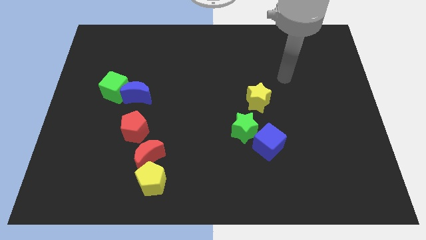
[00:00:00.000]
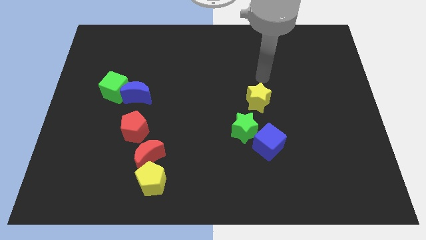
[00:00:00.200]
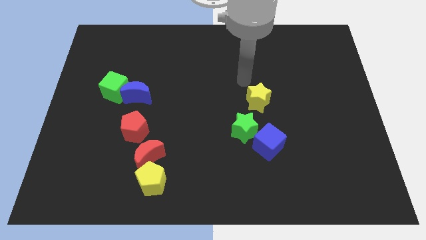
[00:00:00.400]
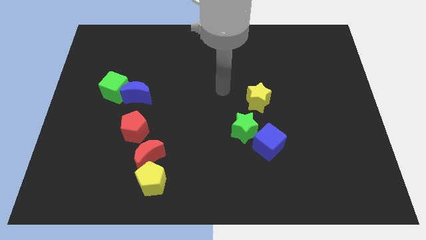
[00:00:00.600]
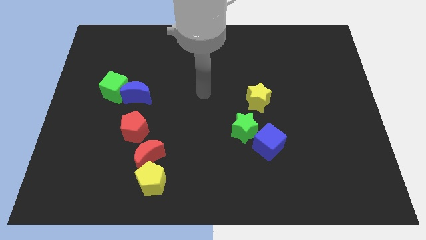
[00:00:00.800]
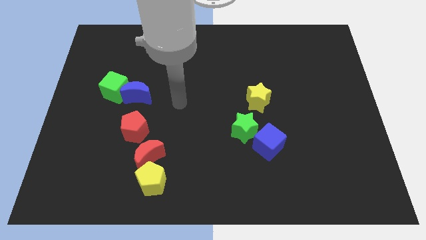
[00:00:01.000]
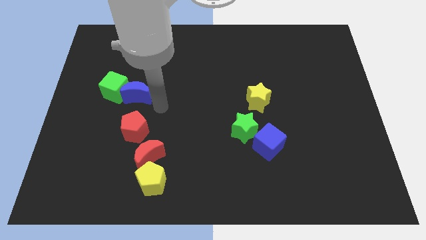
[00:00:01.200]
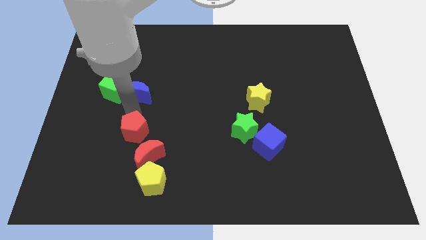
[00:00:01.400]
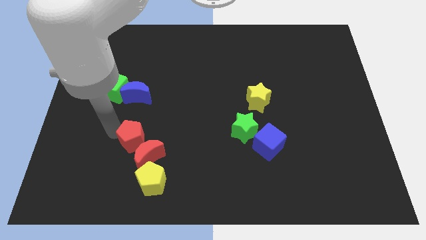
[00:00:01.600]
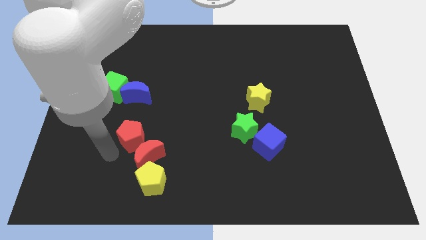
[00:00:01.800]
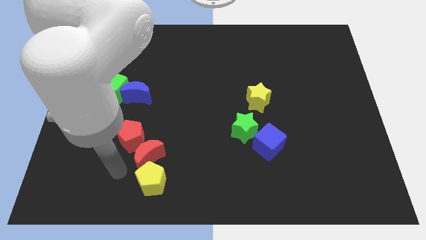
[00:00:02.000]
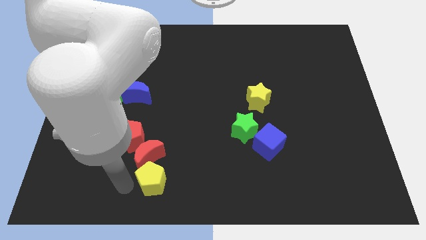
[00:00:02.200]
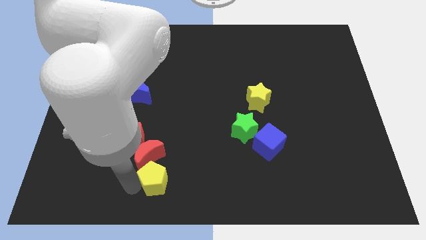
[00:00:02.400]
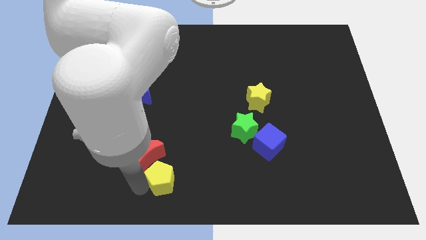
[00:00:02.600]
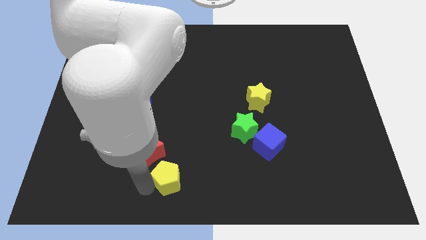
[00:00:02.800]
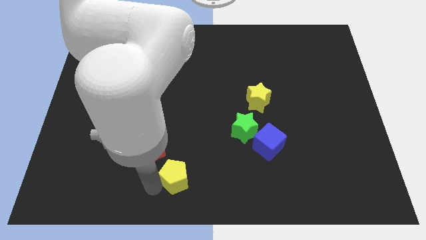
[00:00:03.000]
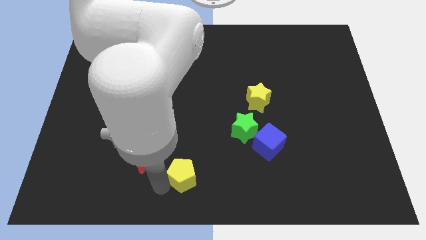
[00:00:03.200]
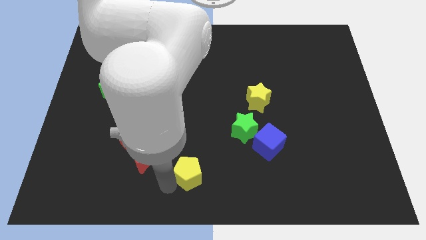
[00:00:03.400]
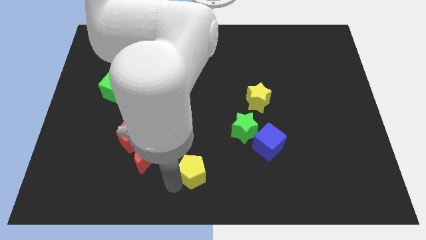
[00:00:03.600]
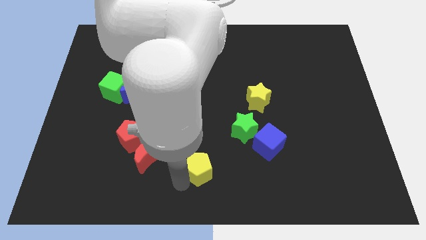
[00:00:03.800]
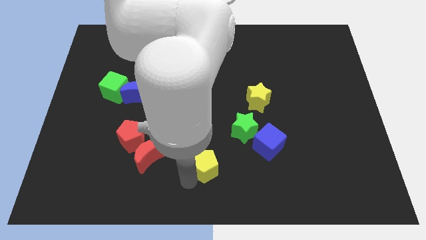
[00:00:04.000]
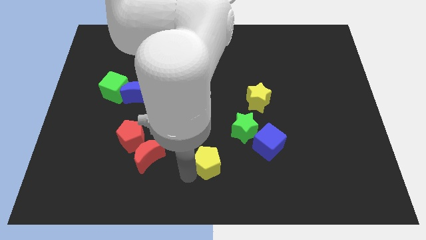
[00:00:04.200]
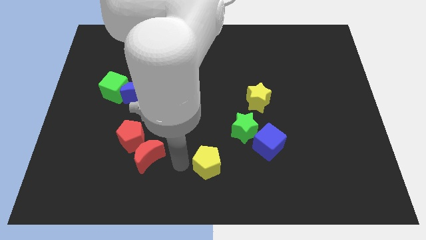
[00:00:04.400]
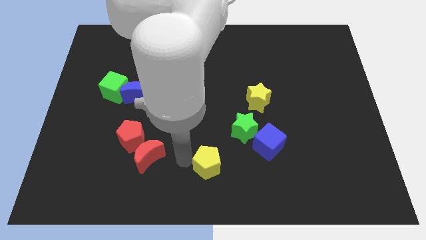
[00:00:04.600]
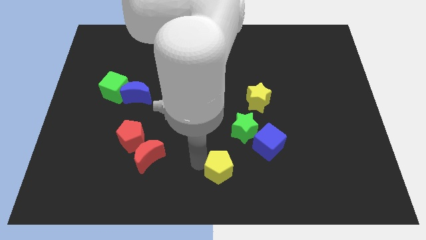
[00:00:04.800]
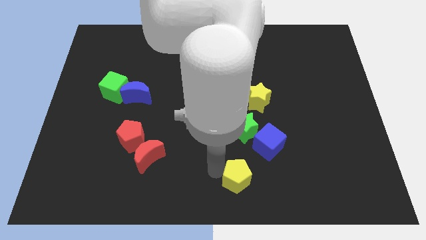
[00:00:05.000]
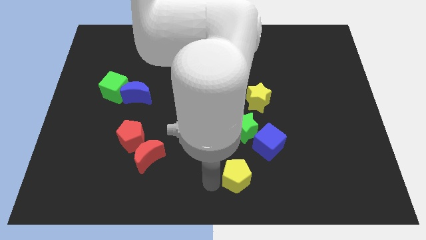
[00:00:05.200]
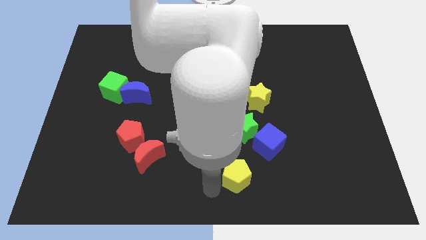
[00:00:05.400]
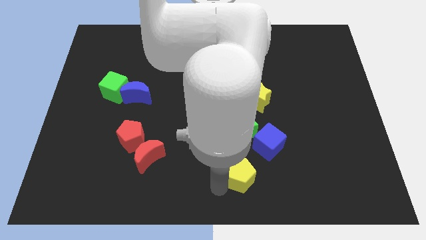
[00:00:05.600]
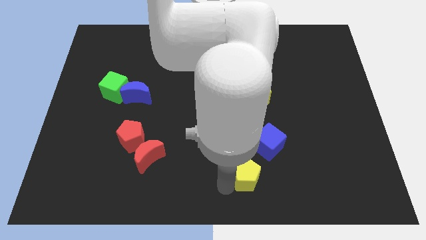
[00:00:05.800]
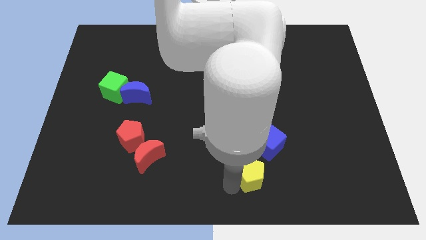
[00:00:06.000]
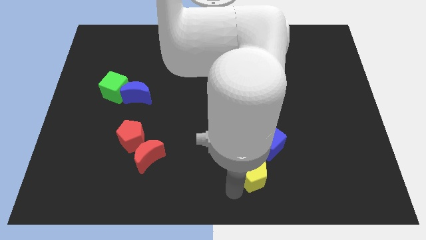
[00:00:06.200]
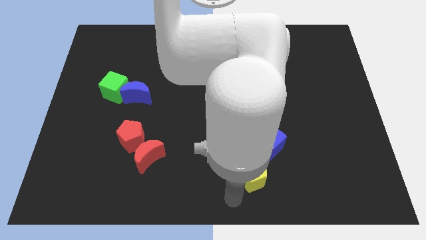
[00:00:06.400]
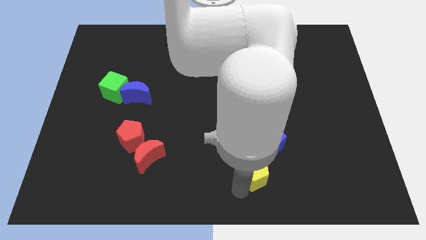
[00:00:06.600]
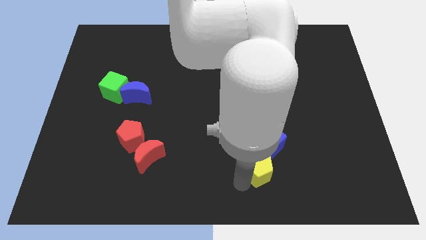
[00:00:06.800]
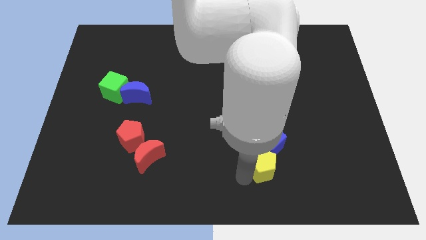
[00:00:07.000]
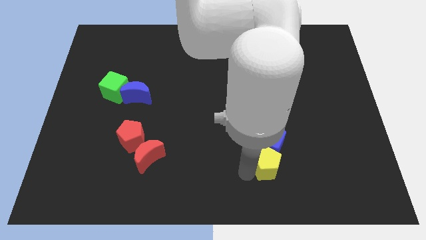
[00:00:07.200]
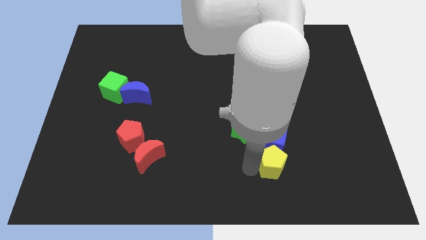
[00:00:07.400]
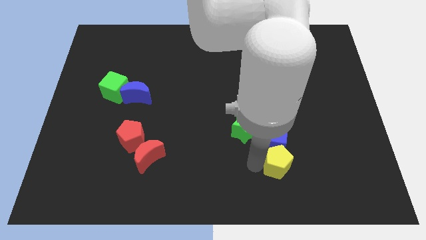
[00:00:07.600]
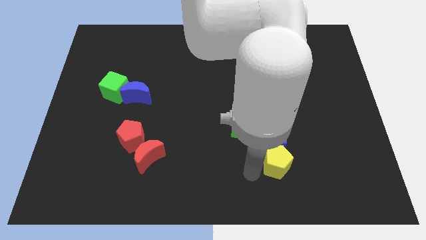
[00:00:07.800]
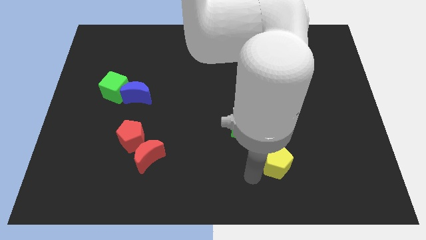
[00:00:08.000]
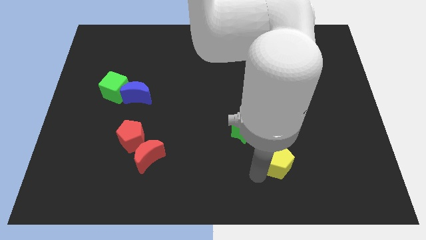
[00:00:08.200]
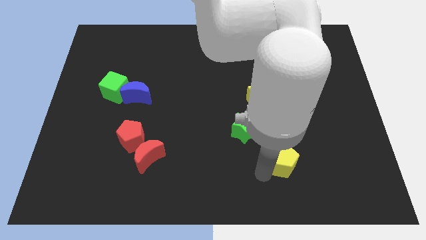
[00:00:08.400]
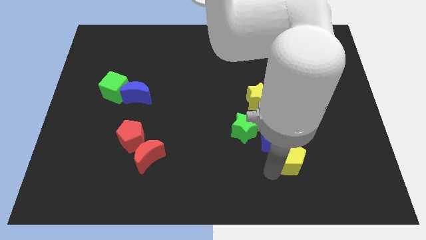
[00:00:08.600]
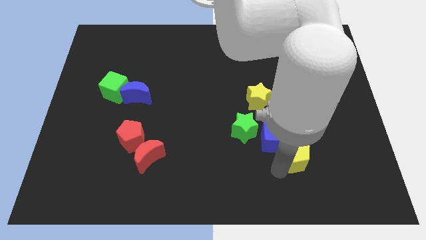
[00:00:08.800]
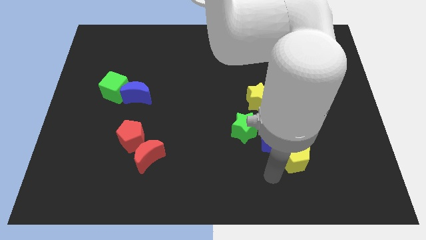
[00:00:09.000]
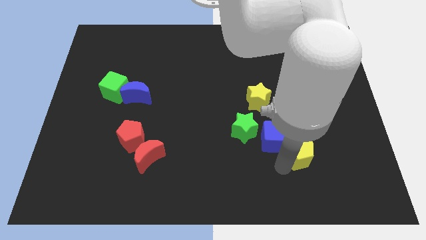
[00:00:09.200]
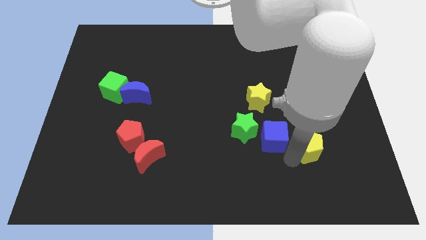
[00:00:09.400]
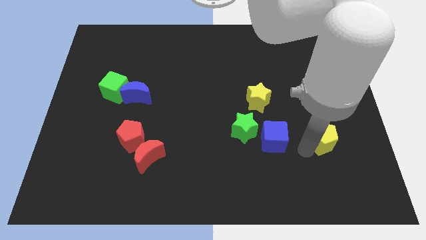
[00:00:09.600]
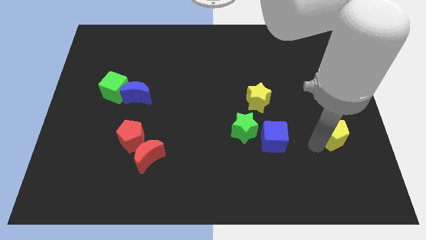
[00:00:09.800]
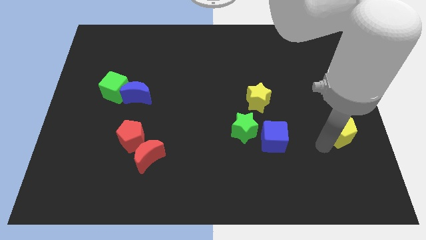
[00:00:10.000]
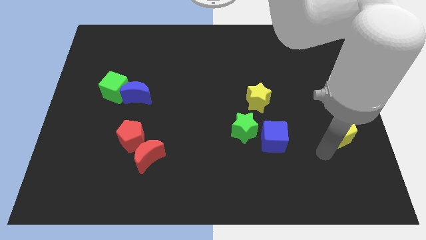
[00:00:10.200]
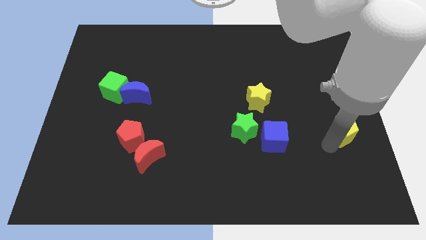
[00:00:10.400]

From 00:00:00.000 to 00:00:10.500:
slide the yellow pentagon to the right side of the board
